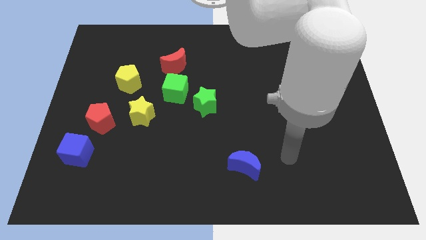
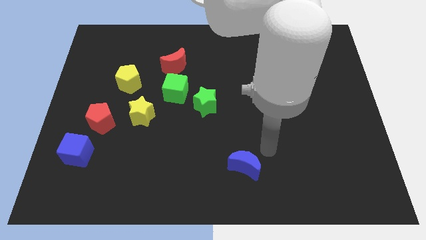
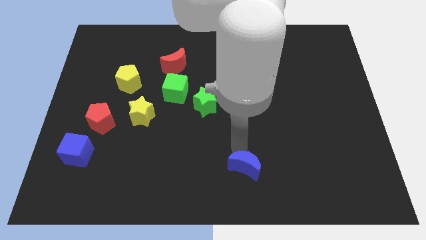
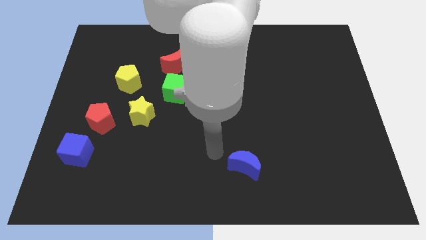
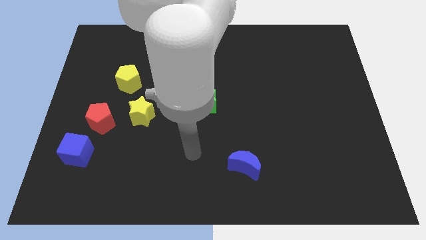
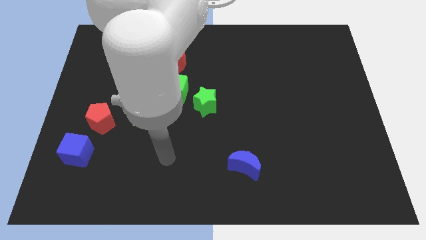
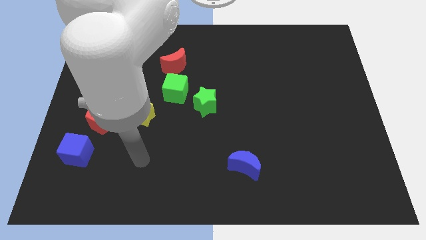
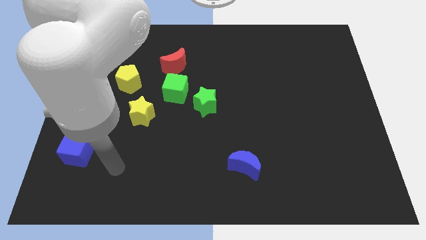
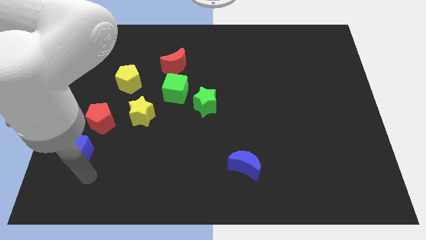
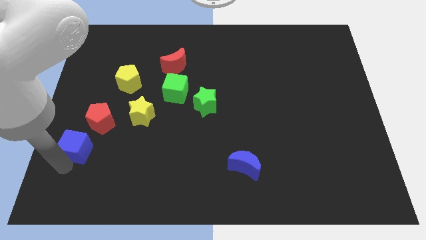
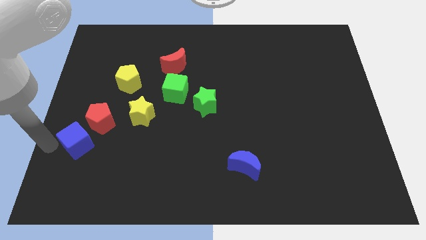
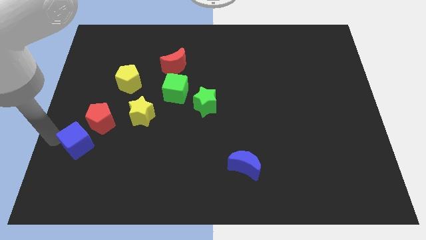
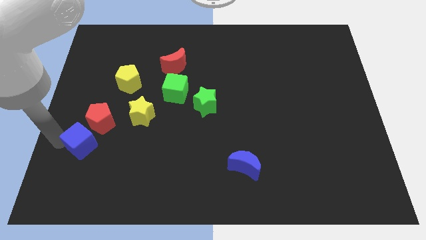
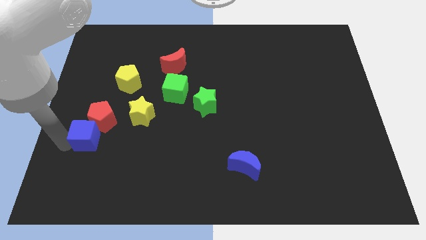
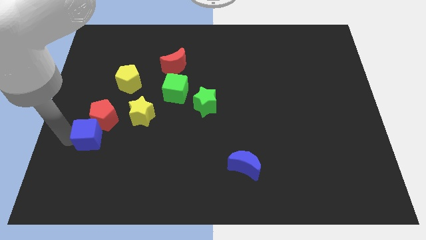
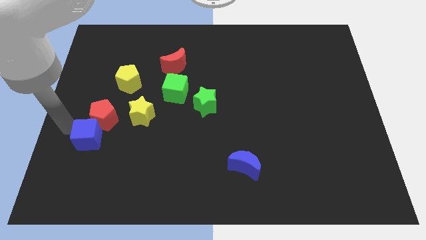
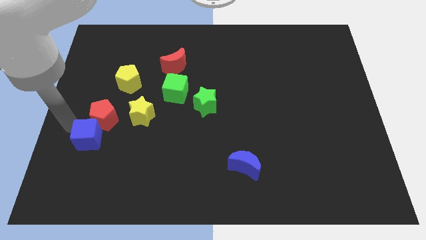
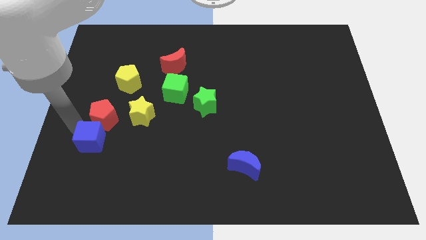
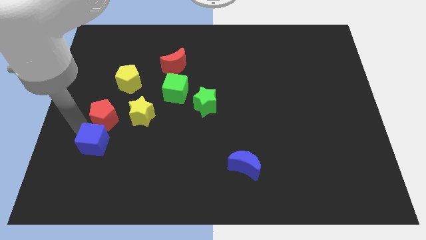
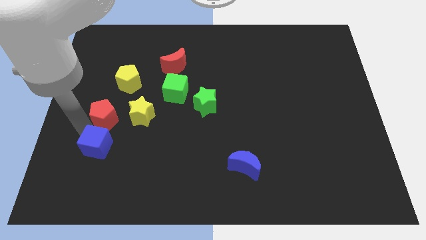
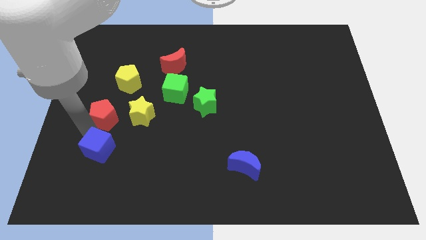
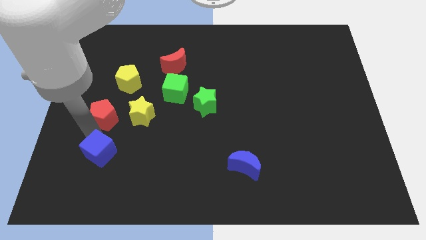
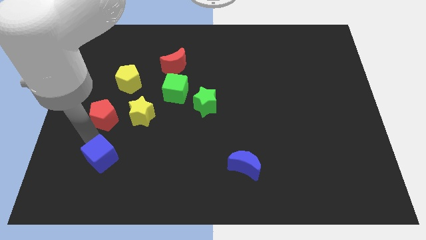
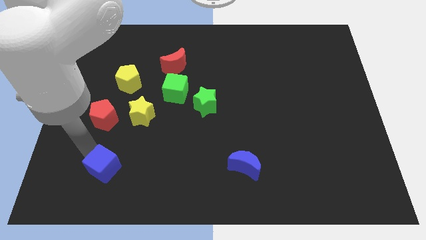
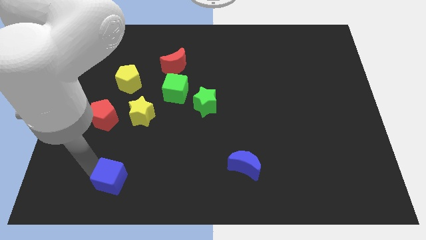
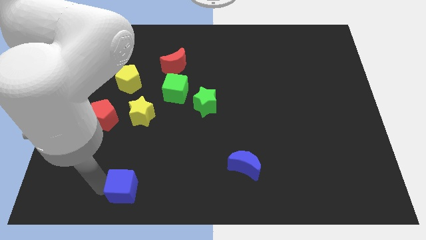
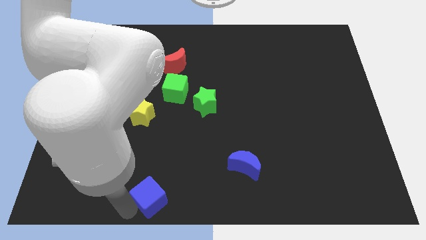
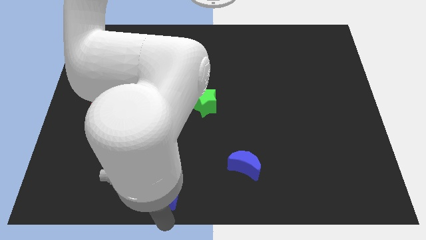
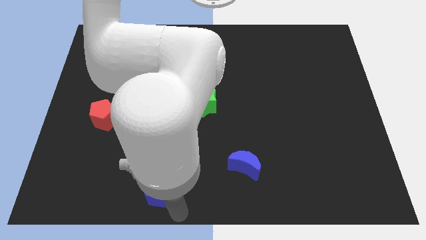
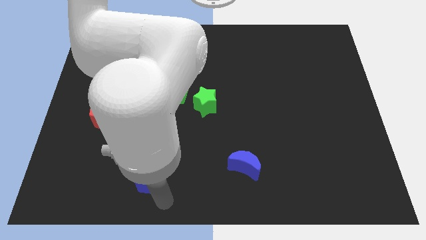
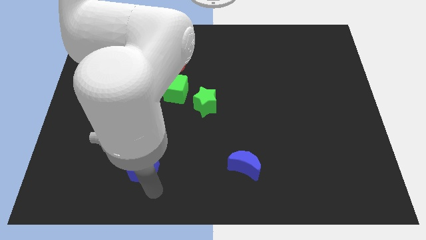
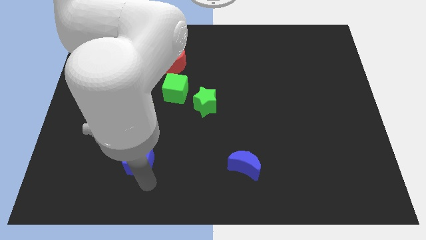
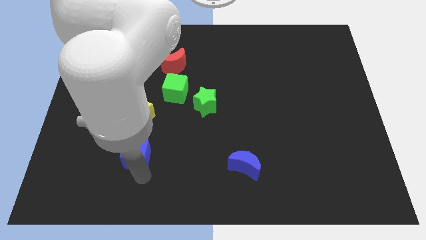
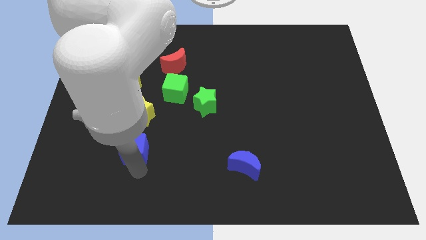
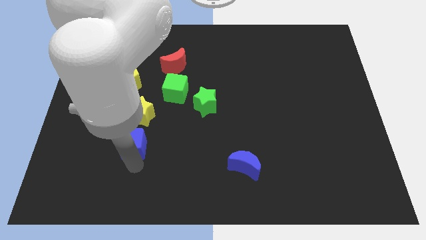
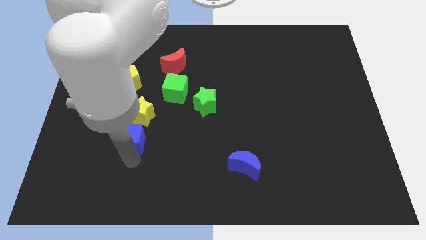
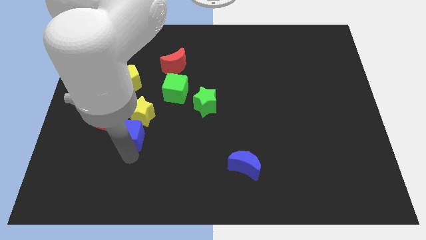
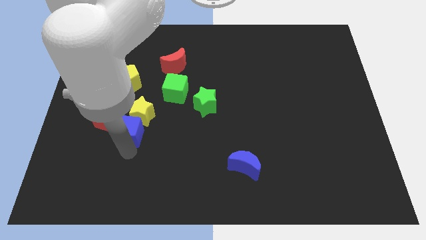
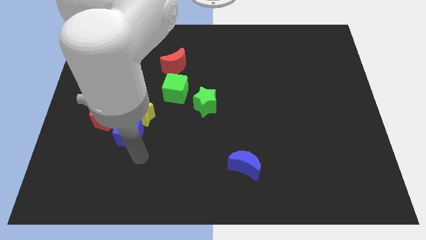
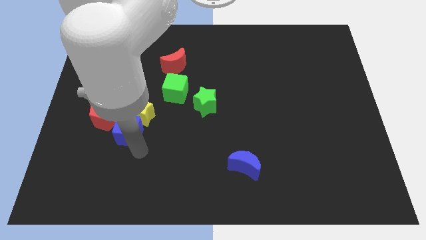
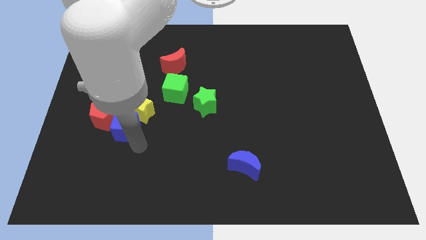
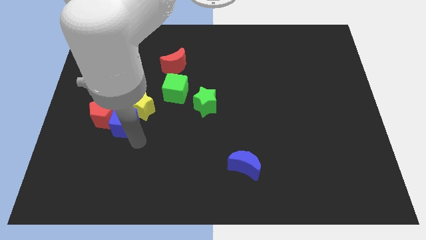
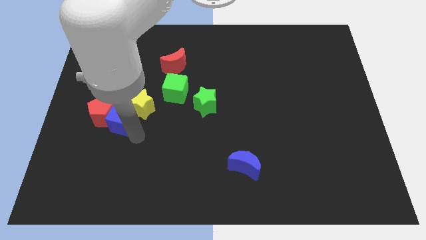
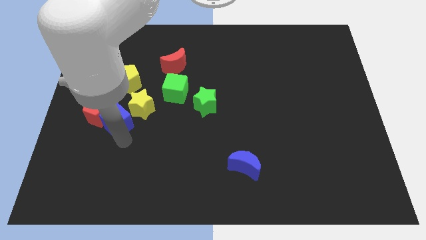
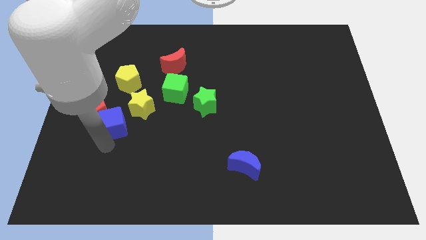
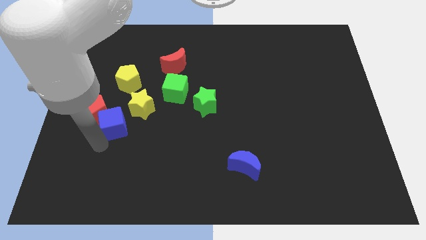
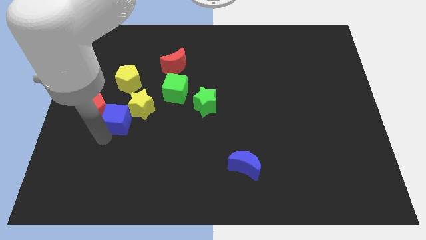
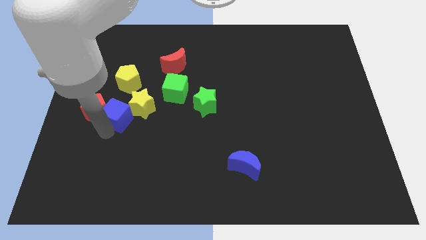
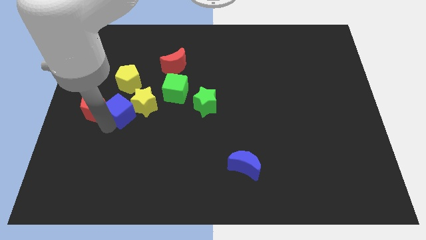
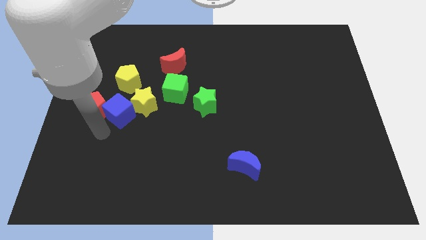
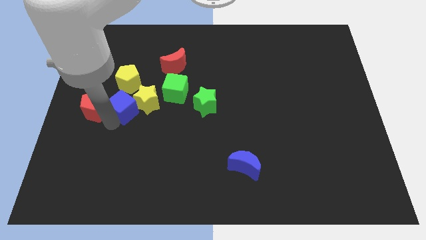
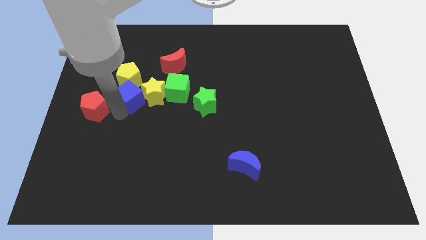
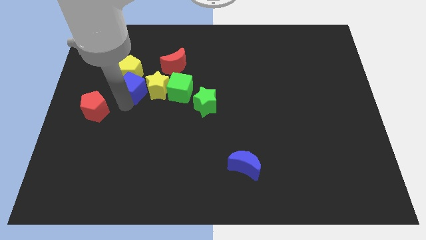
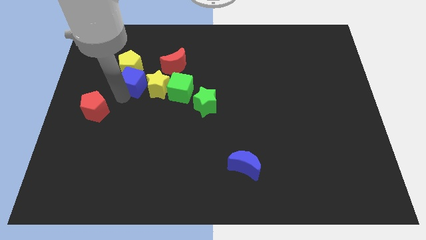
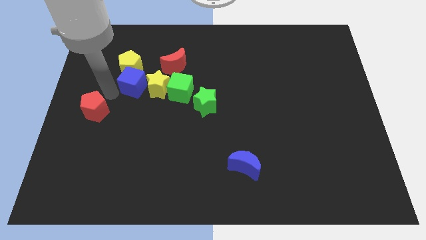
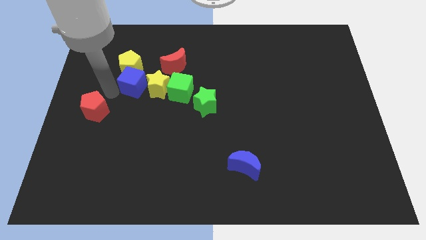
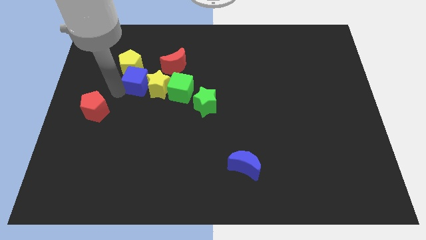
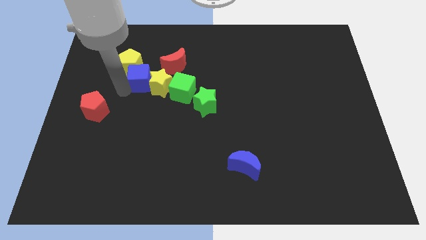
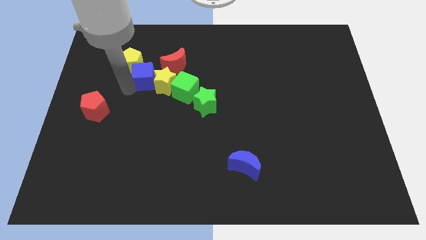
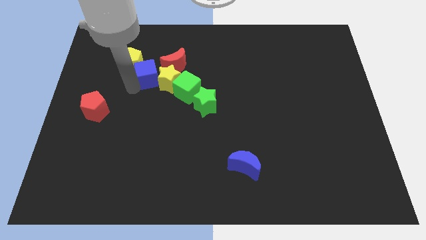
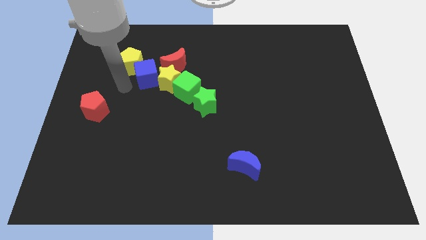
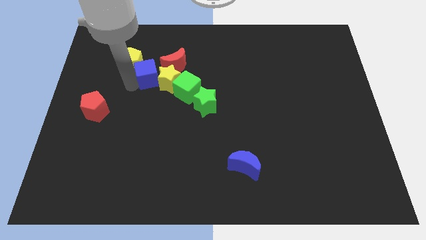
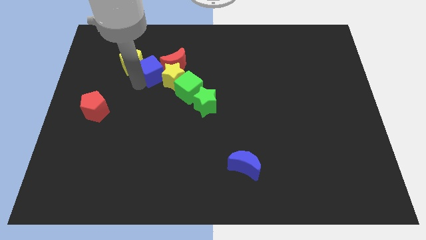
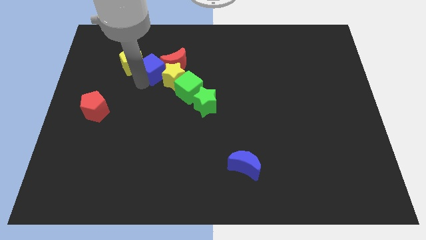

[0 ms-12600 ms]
slide the blue cube close to the red moon

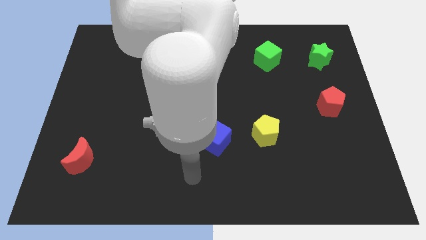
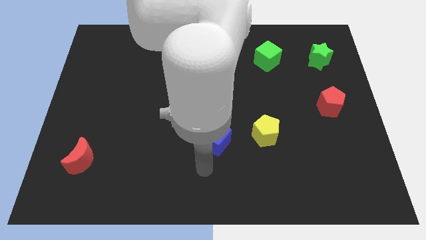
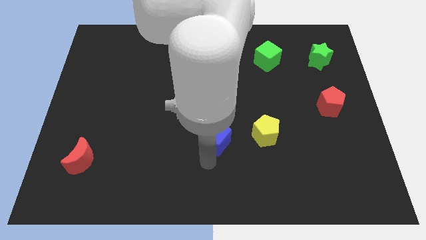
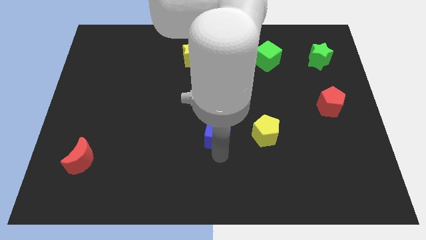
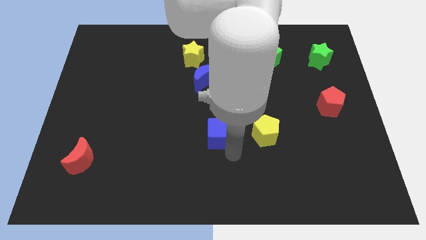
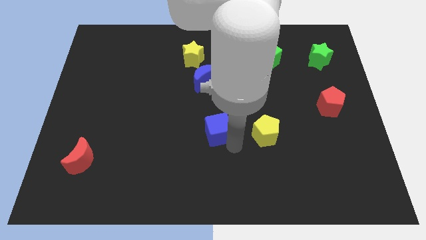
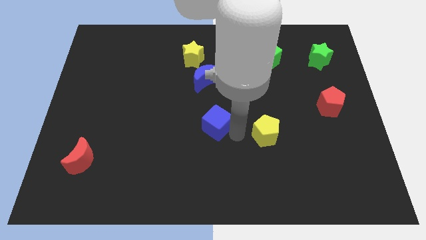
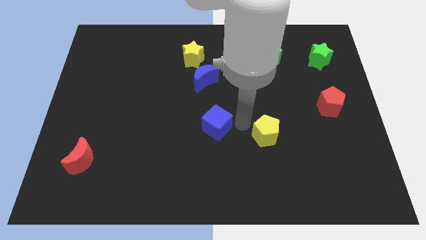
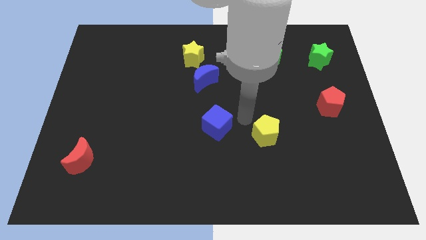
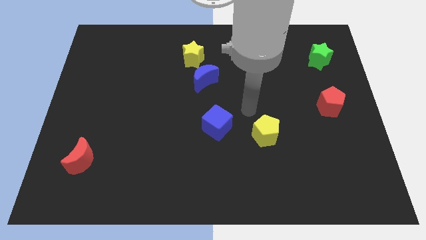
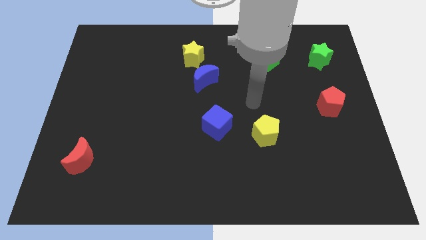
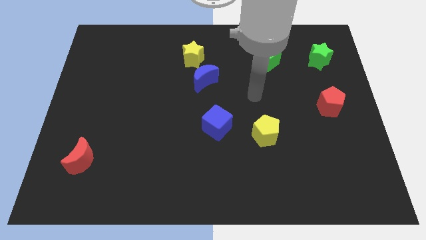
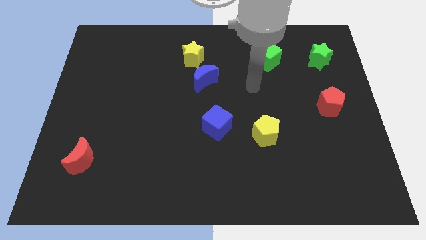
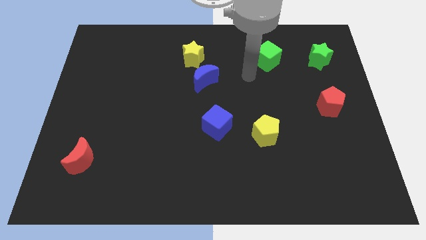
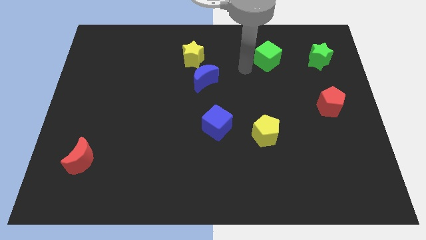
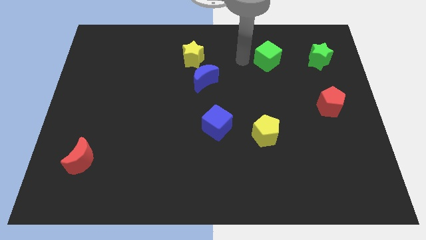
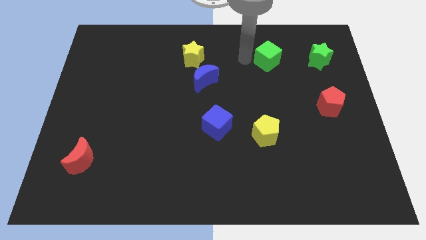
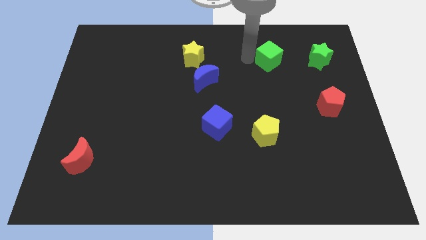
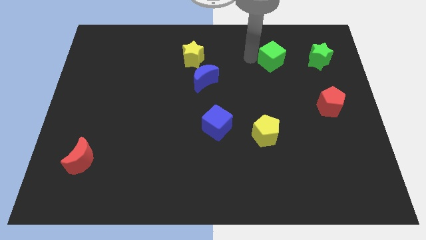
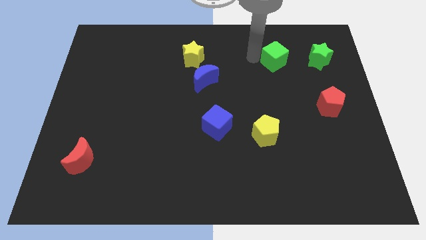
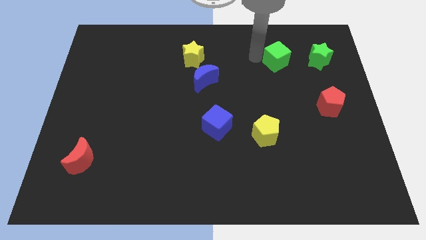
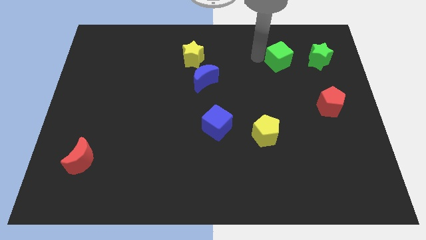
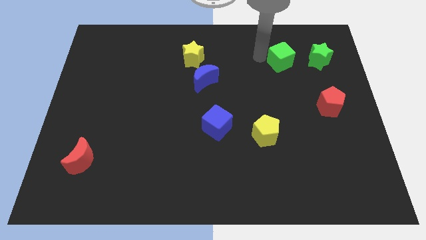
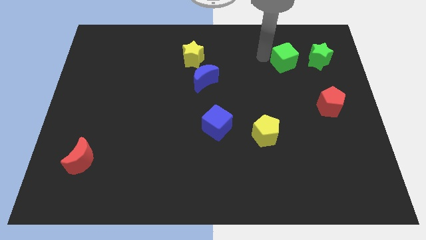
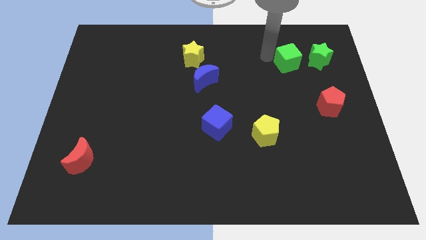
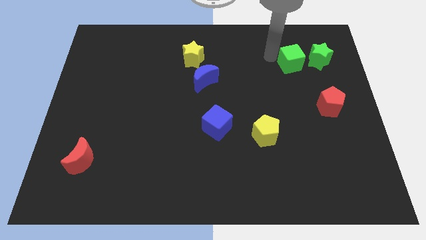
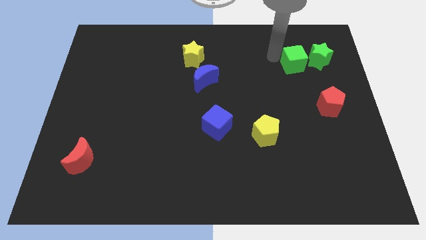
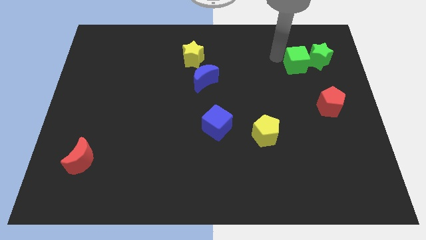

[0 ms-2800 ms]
move the green cube next to the green star
